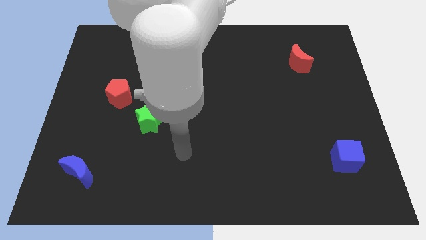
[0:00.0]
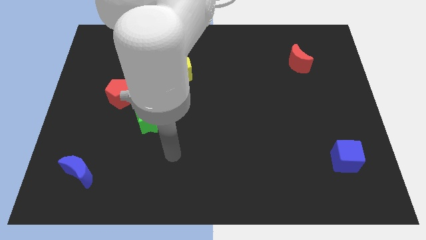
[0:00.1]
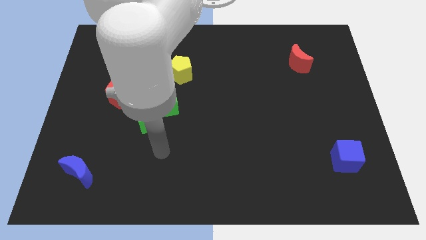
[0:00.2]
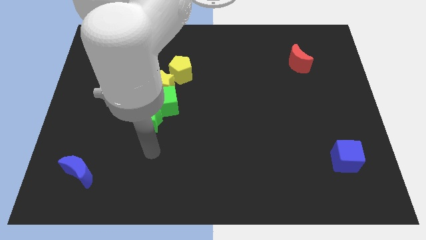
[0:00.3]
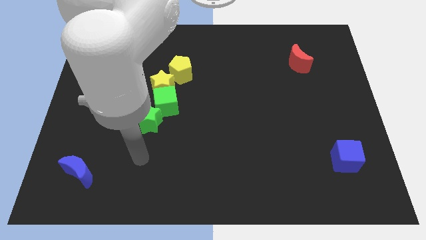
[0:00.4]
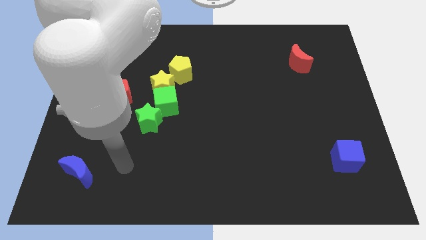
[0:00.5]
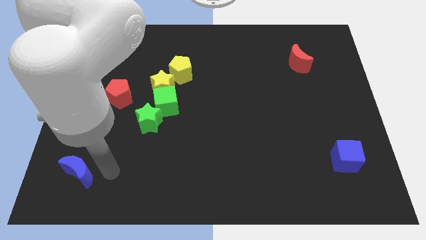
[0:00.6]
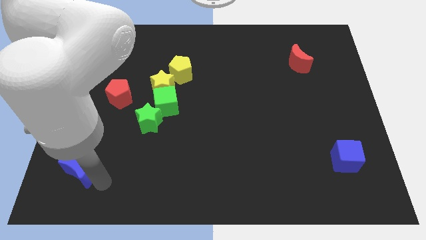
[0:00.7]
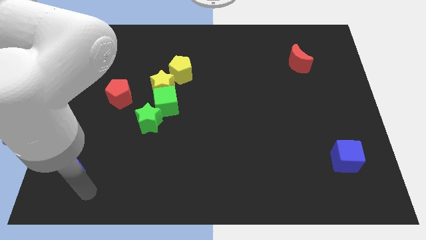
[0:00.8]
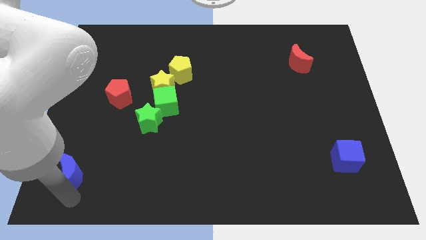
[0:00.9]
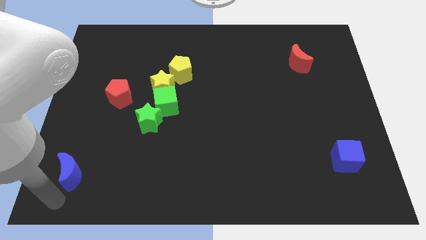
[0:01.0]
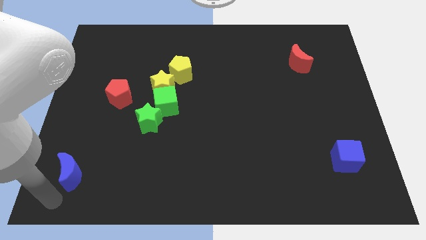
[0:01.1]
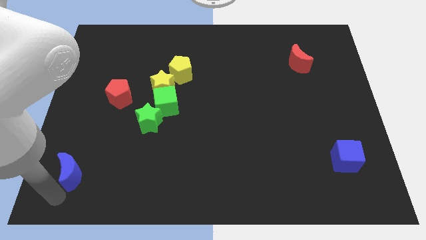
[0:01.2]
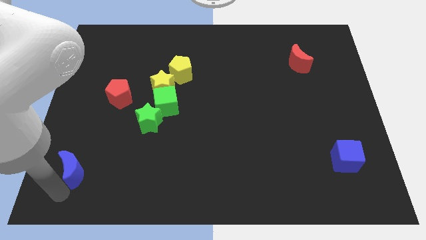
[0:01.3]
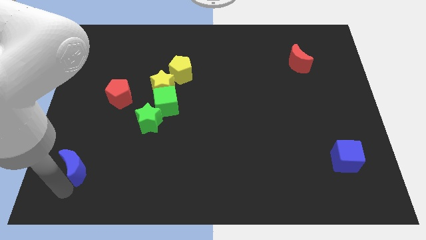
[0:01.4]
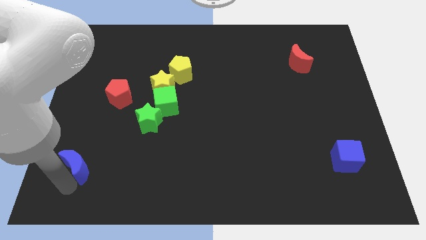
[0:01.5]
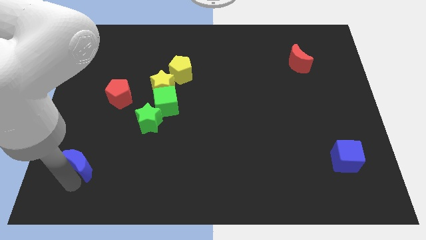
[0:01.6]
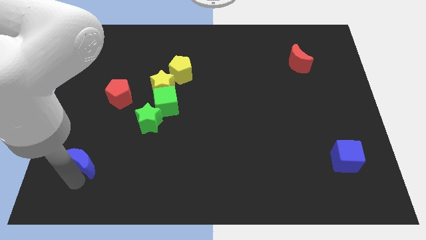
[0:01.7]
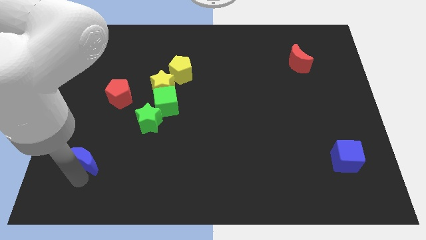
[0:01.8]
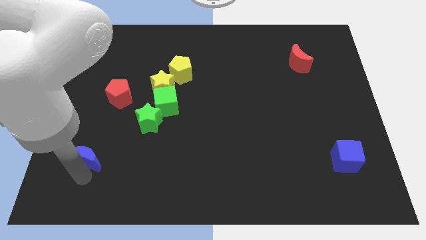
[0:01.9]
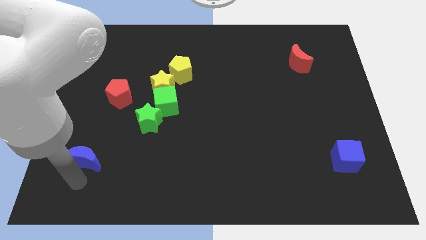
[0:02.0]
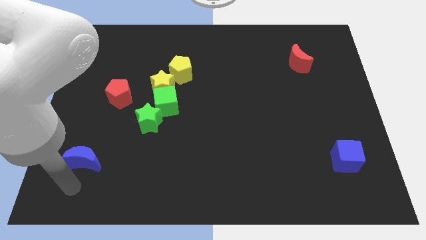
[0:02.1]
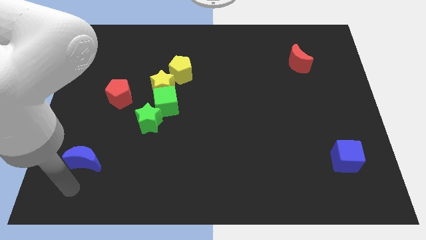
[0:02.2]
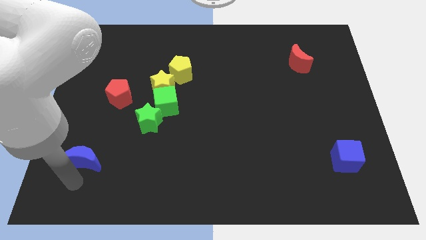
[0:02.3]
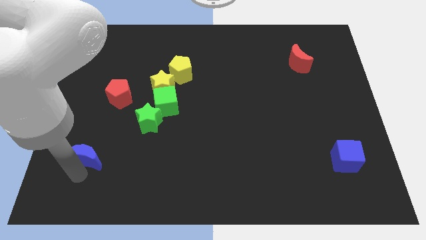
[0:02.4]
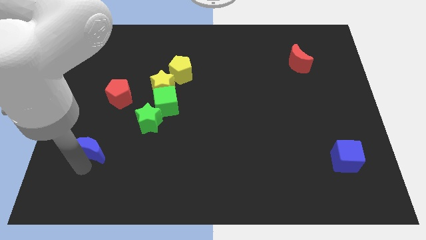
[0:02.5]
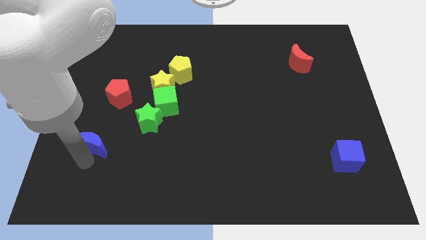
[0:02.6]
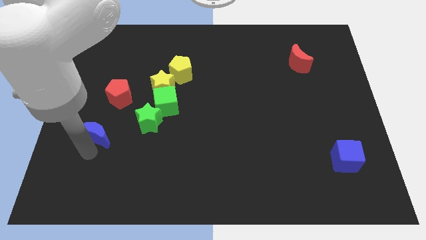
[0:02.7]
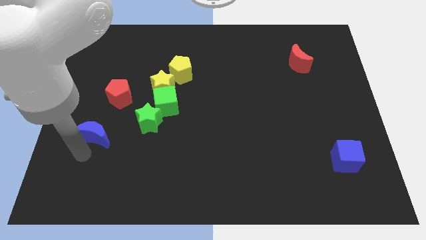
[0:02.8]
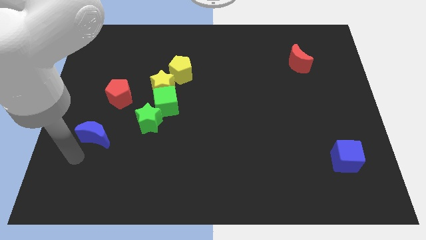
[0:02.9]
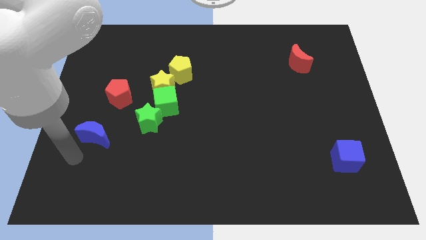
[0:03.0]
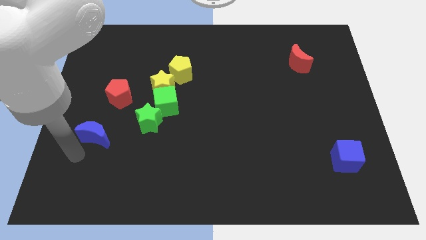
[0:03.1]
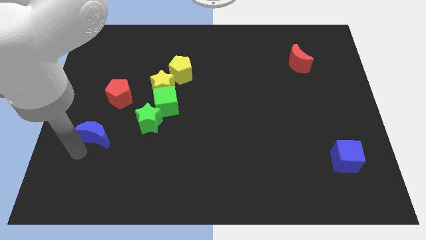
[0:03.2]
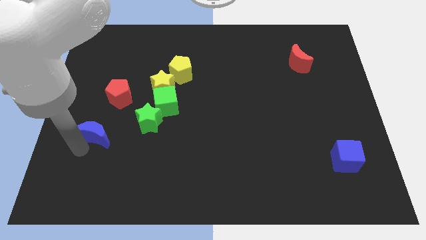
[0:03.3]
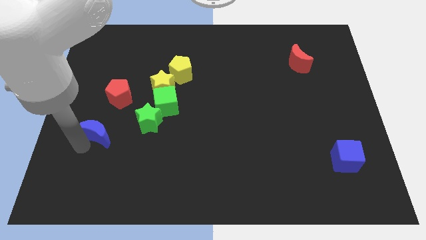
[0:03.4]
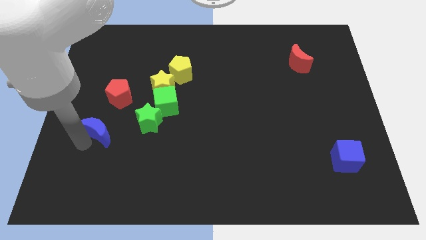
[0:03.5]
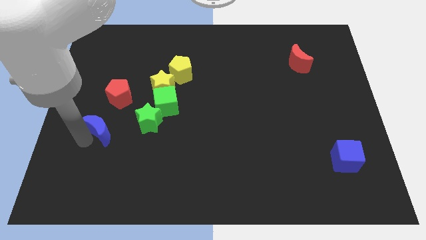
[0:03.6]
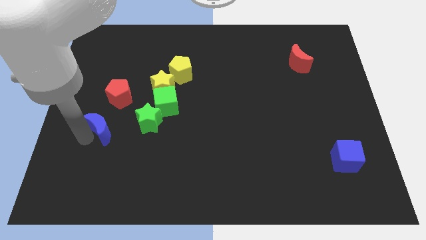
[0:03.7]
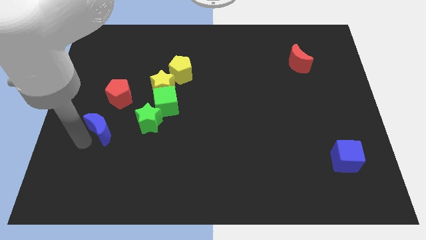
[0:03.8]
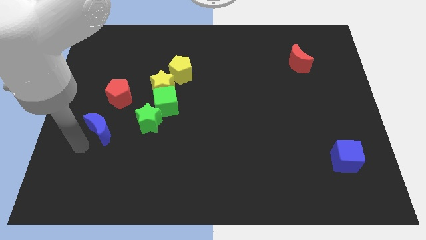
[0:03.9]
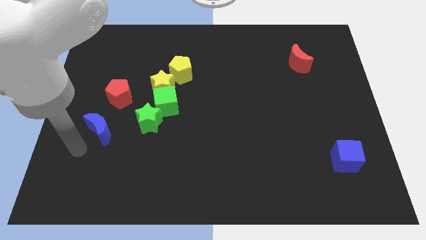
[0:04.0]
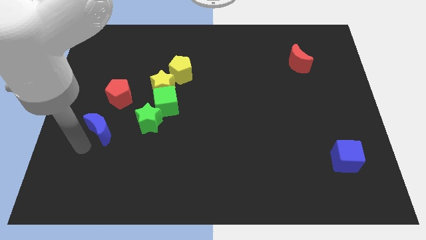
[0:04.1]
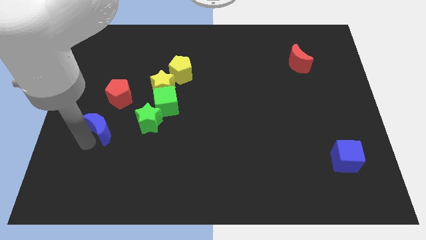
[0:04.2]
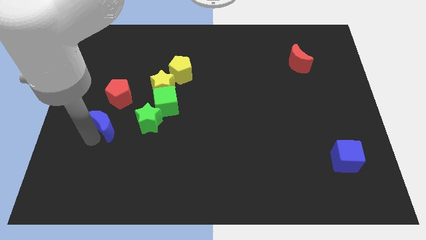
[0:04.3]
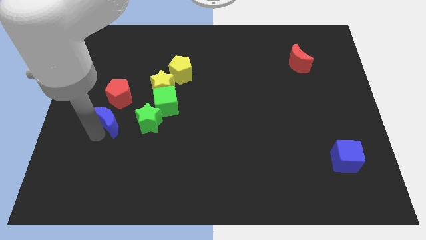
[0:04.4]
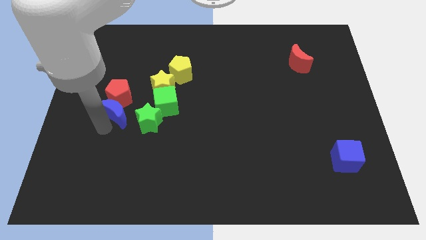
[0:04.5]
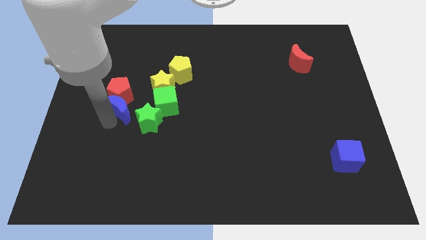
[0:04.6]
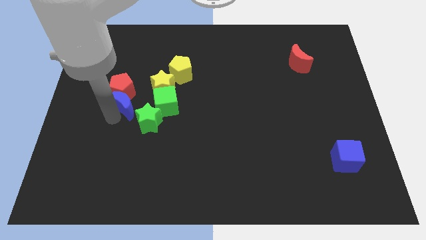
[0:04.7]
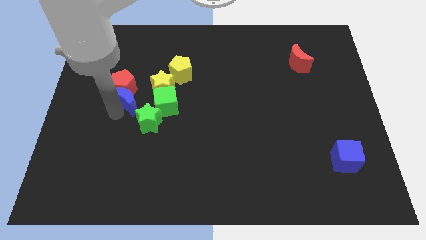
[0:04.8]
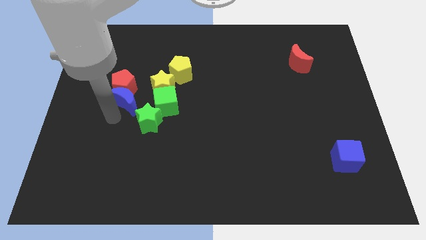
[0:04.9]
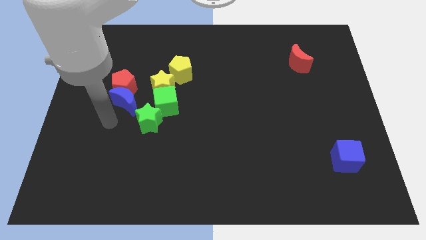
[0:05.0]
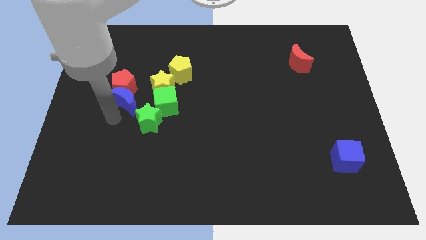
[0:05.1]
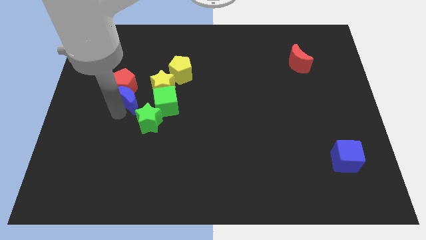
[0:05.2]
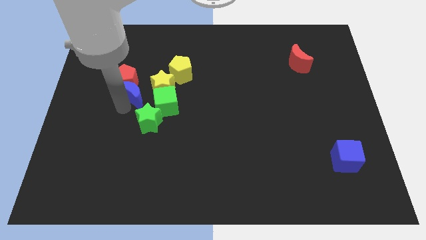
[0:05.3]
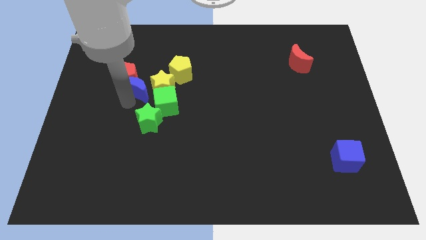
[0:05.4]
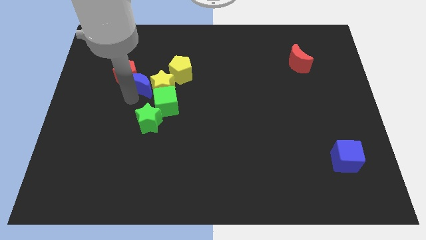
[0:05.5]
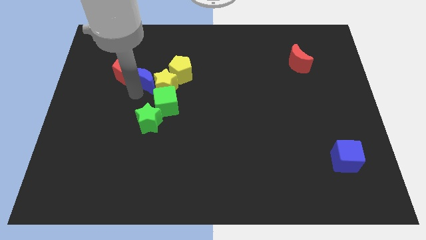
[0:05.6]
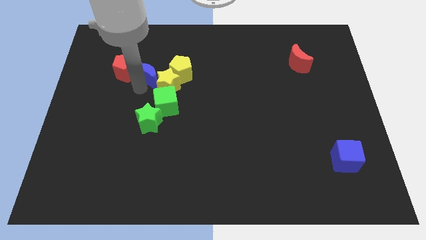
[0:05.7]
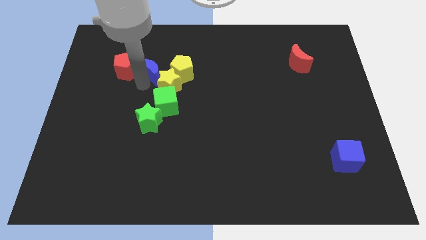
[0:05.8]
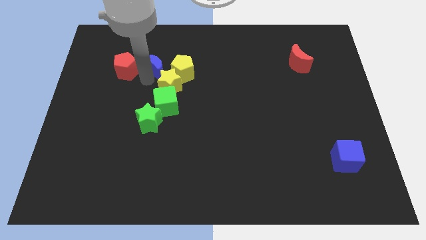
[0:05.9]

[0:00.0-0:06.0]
put the blue moon to the top left side of the yellow pentagon
